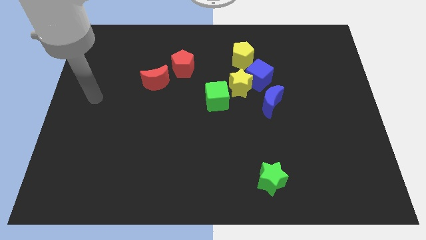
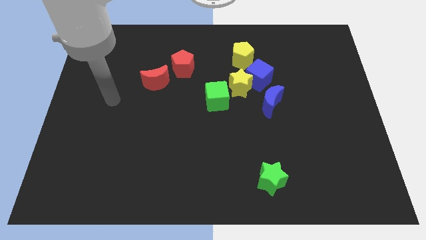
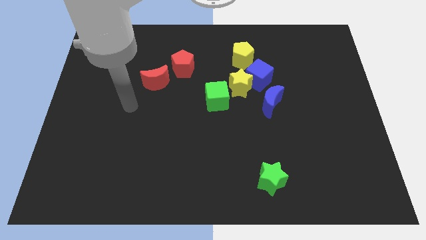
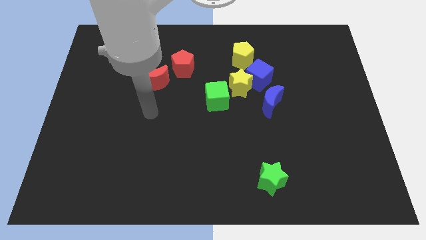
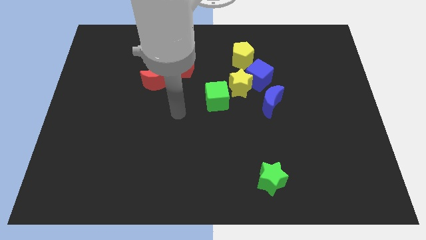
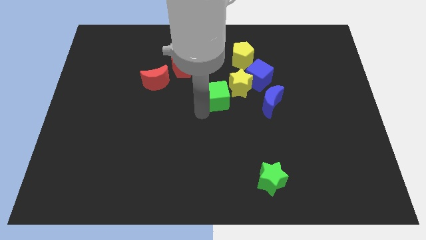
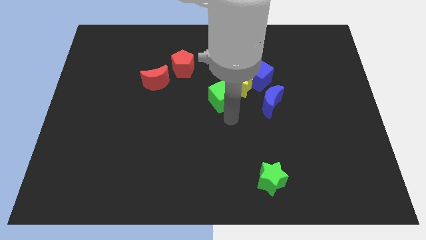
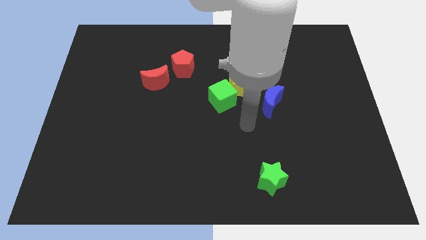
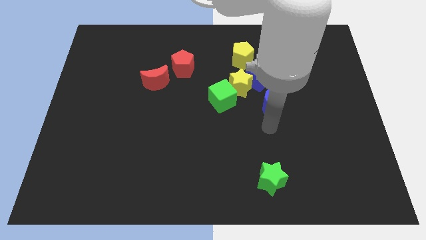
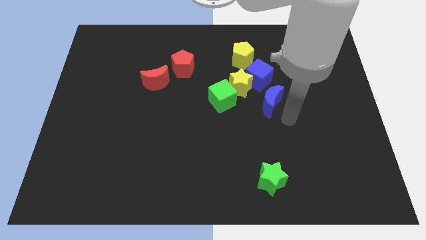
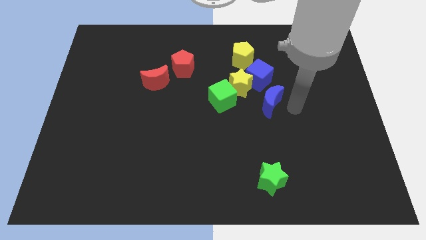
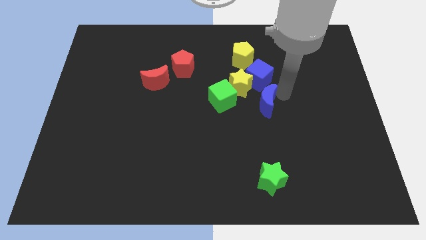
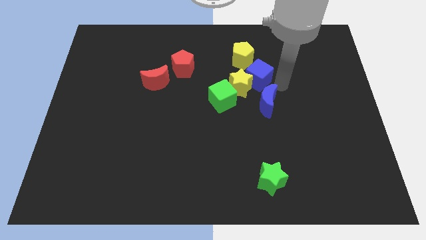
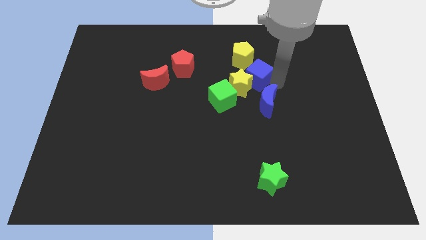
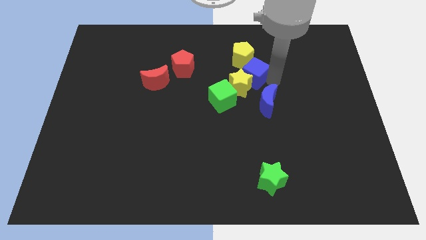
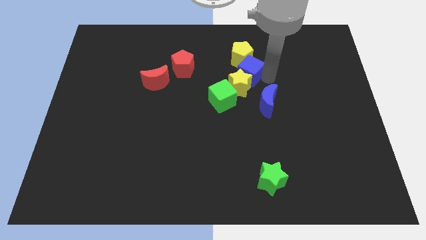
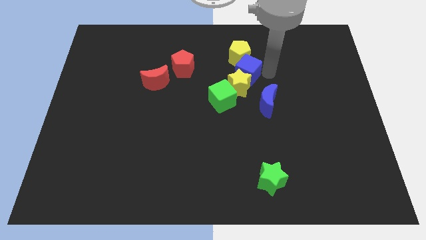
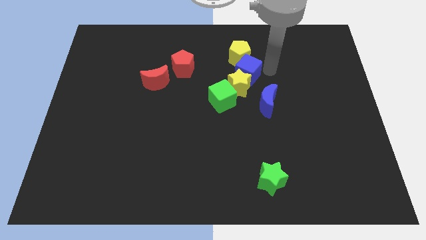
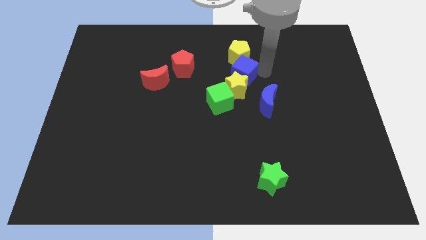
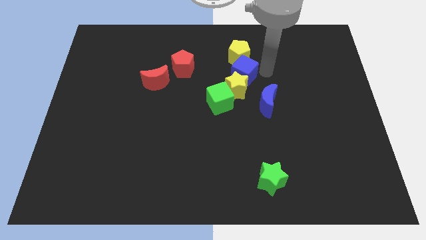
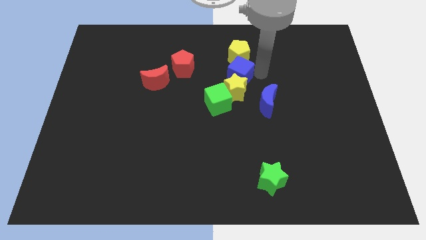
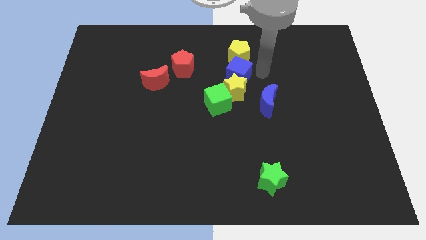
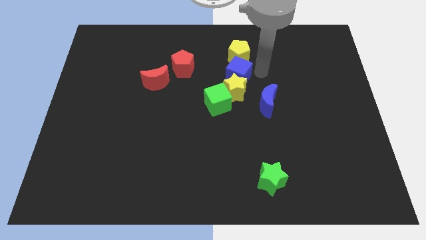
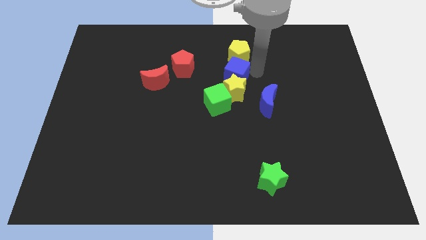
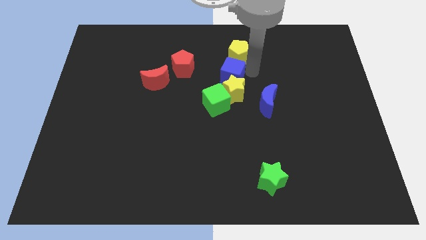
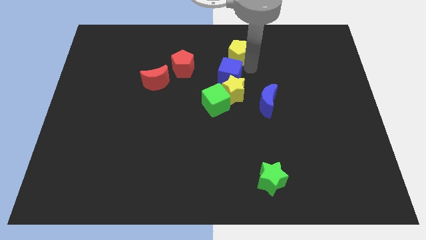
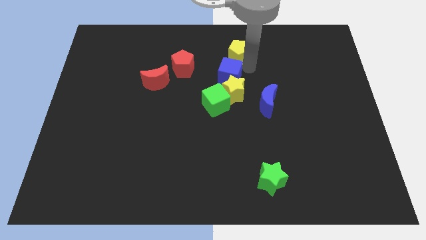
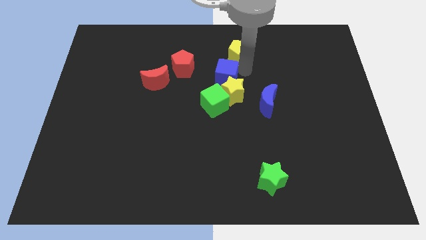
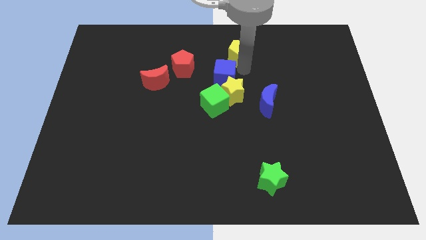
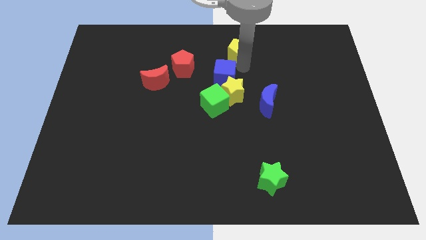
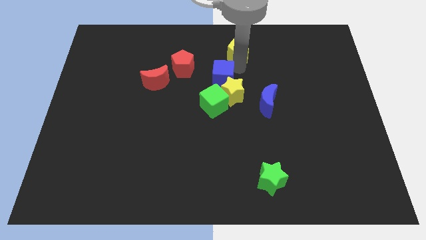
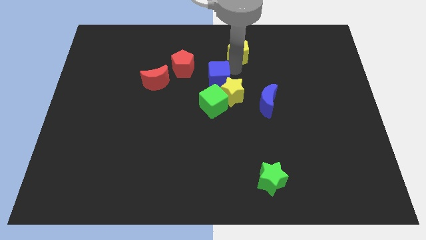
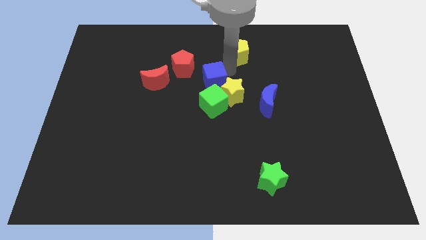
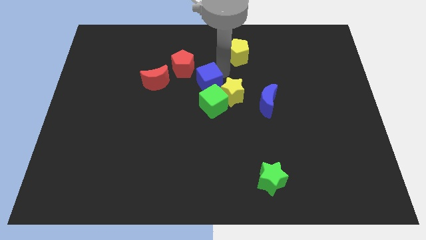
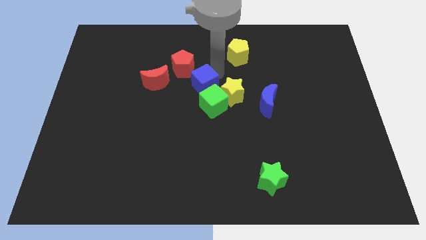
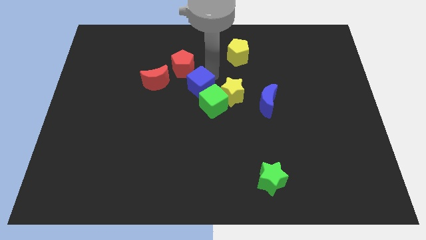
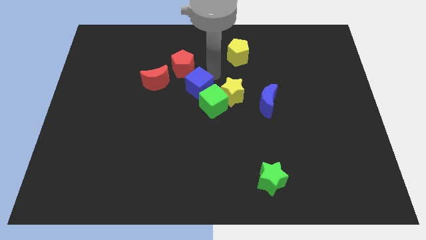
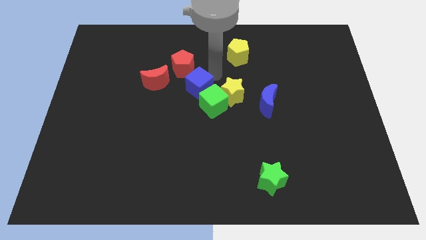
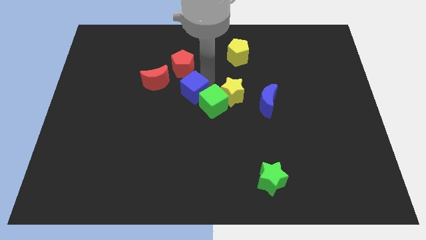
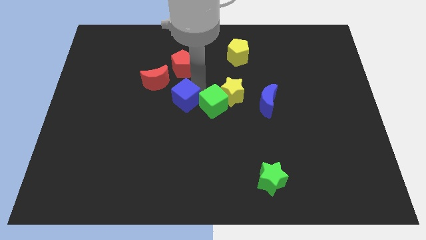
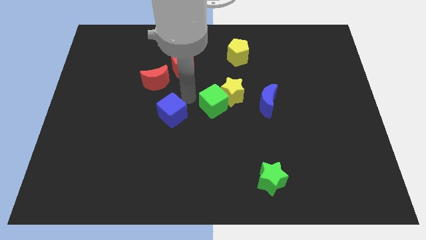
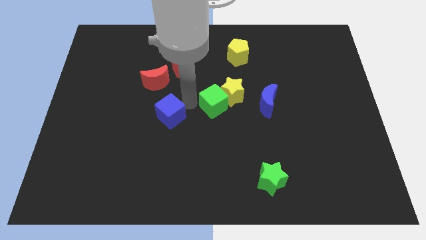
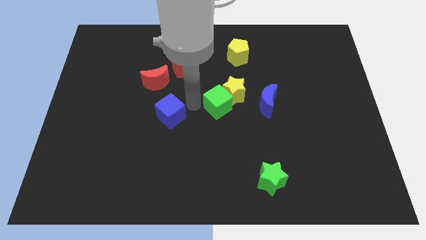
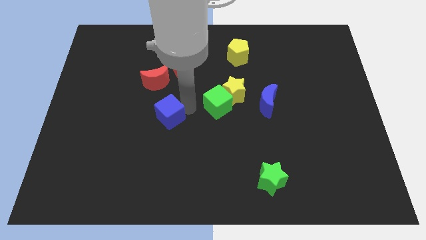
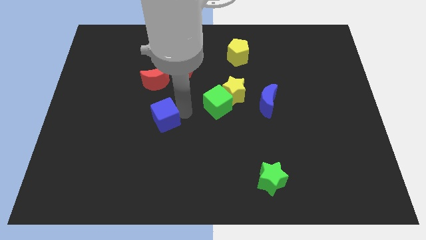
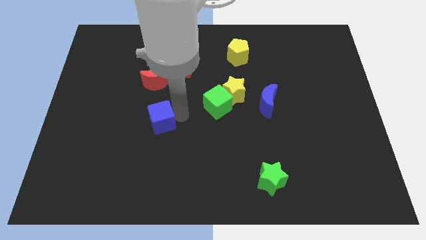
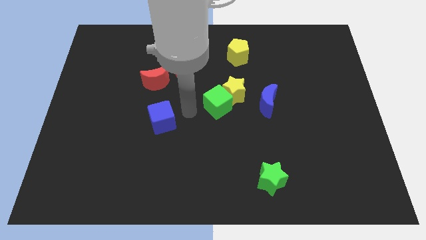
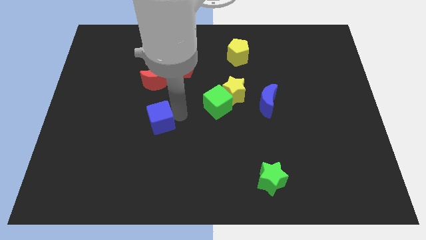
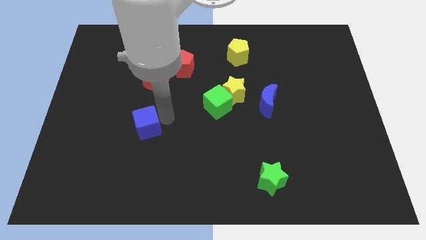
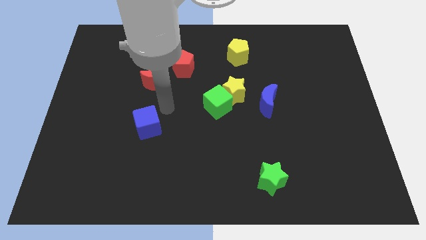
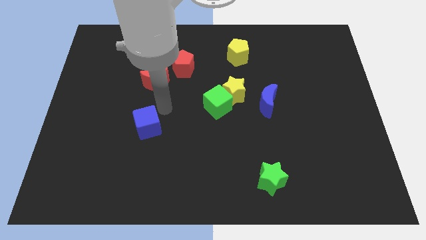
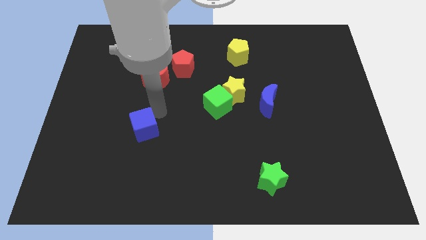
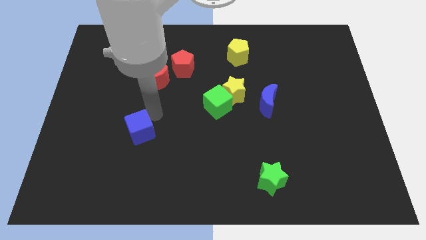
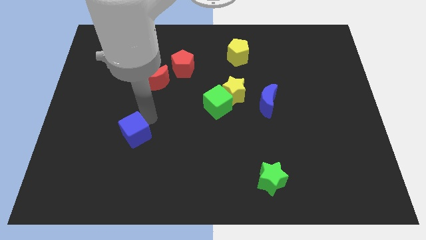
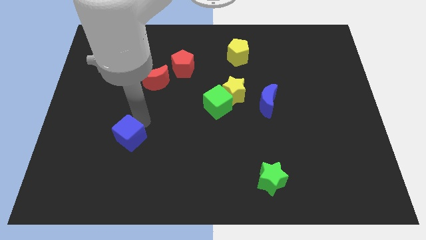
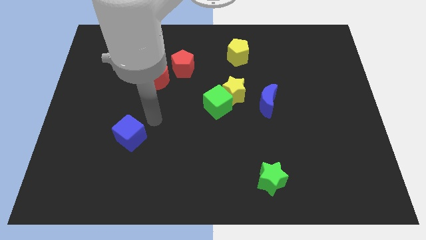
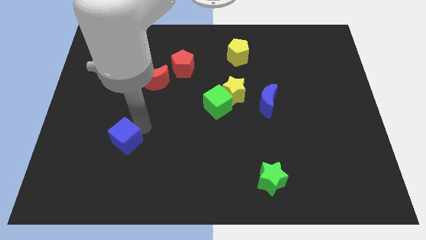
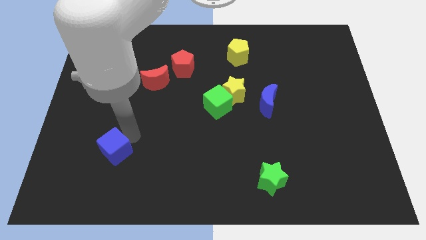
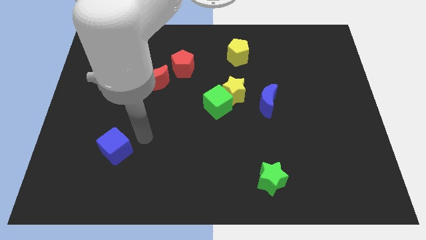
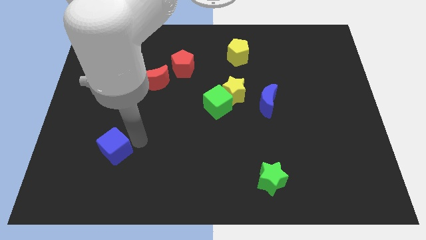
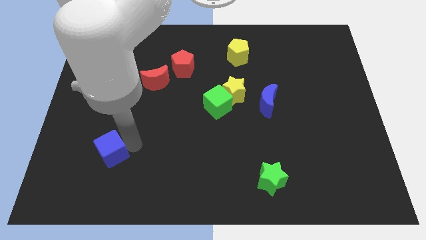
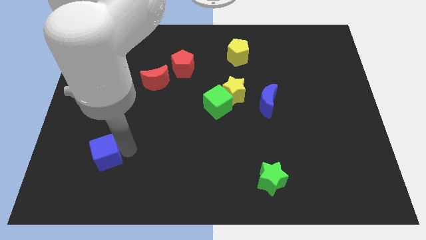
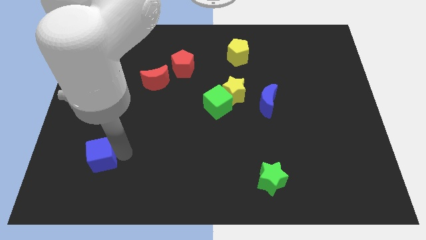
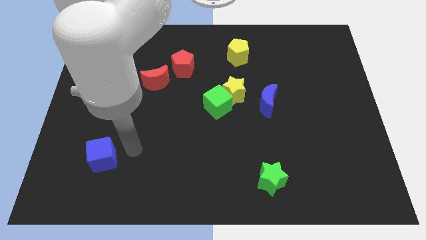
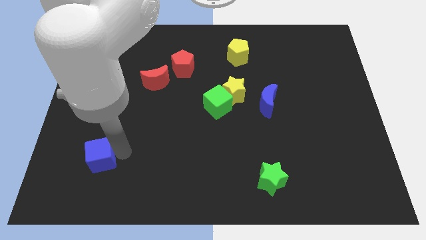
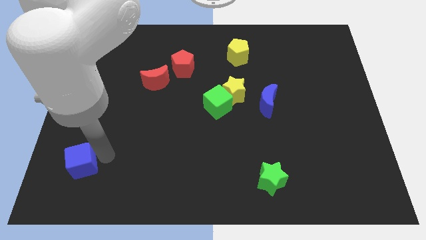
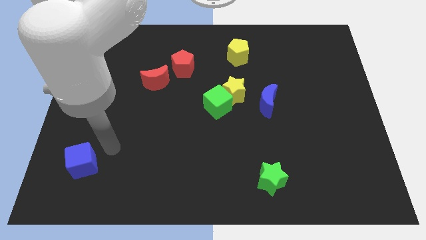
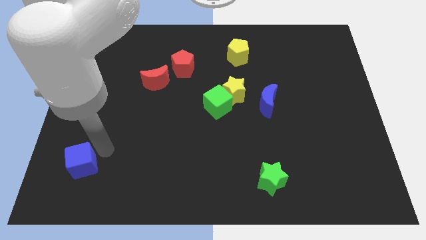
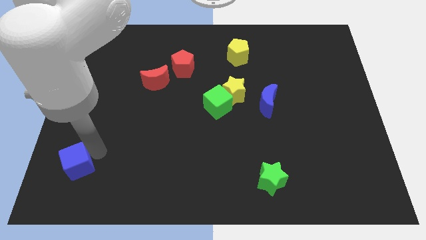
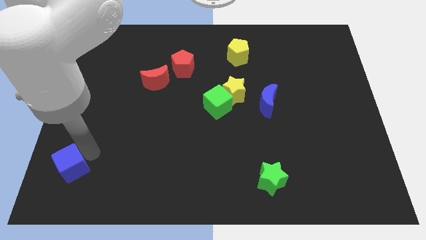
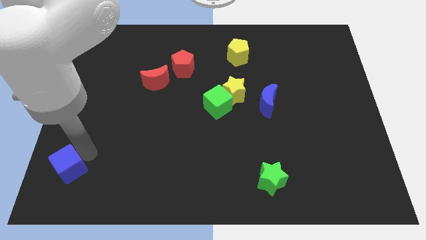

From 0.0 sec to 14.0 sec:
slide the blue cube to the bottom left corner

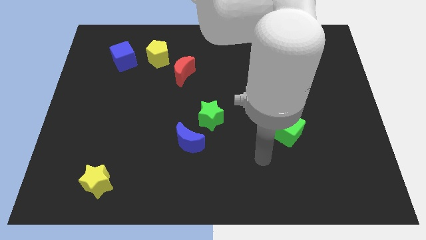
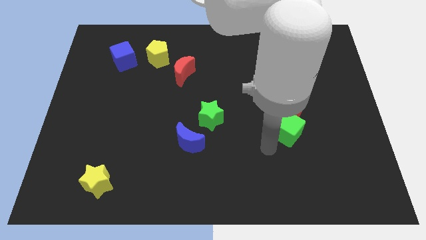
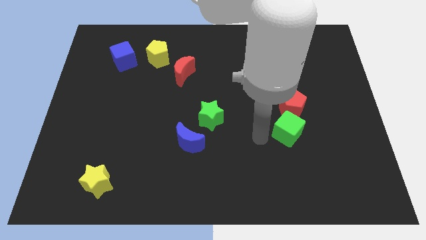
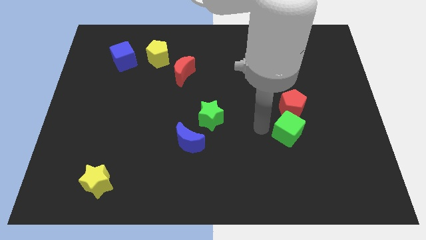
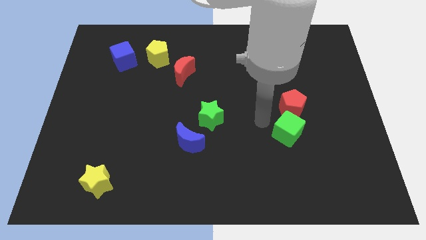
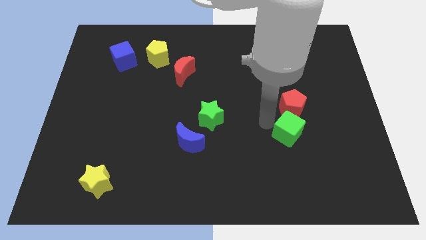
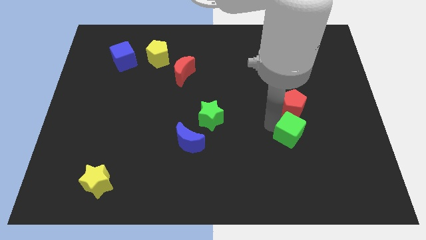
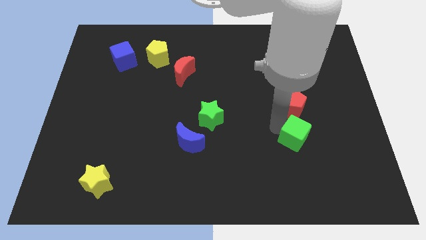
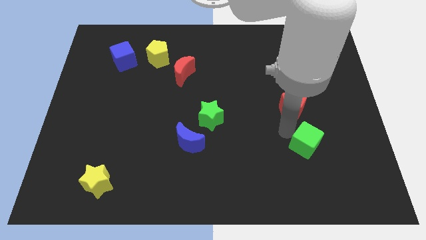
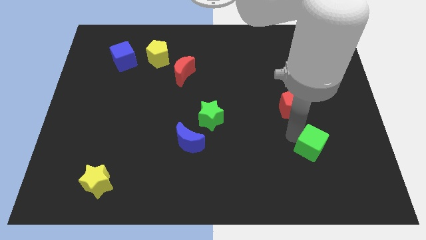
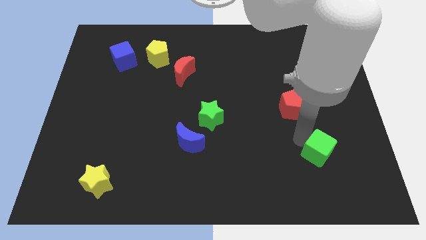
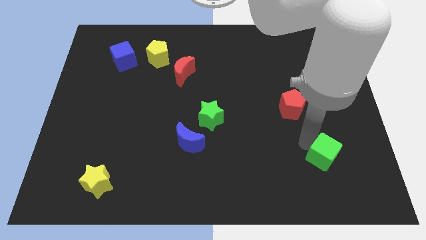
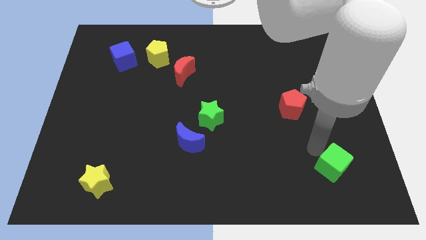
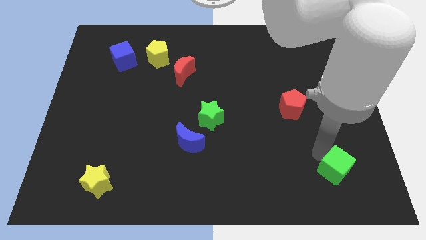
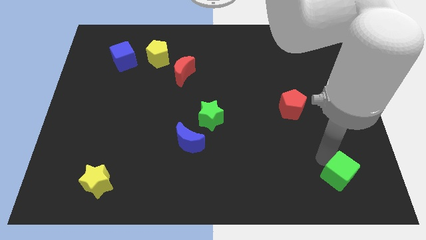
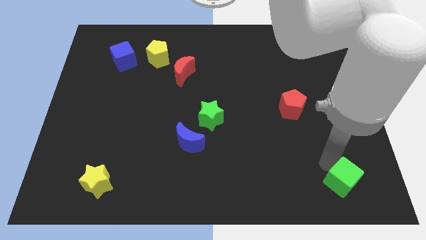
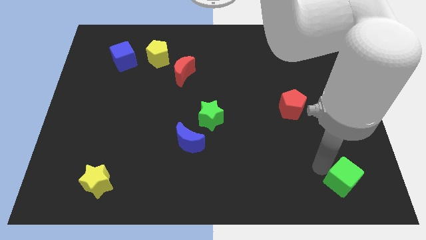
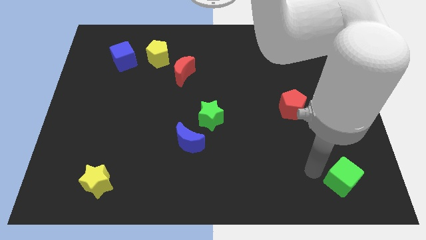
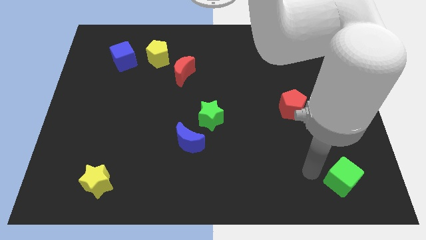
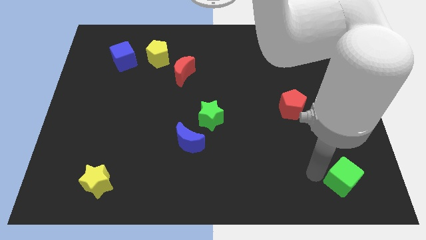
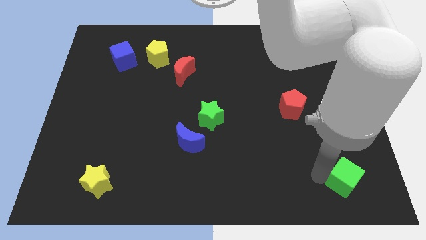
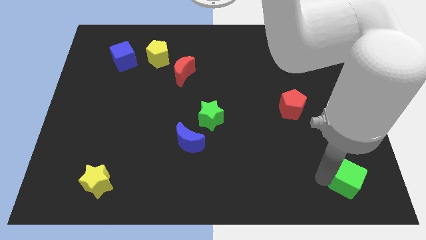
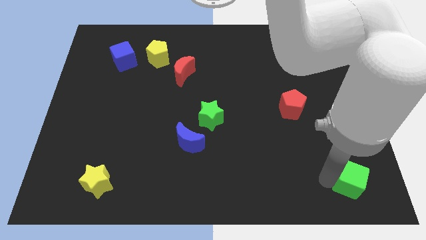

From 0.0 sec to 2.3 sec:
push the green cube to the bottom right of the board
